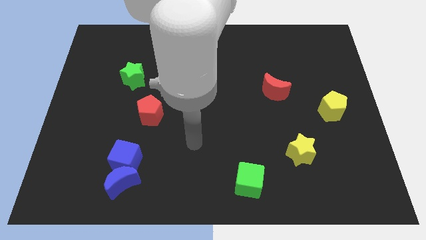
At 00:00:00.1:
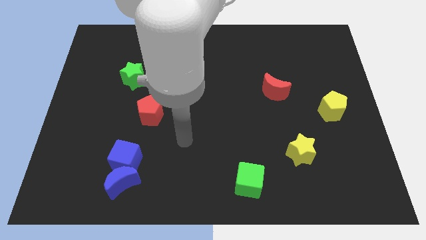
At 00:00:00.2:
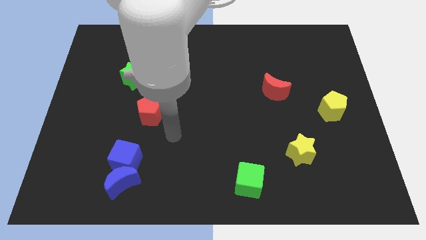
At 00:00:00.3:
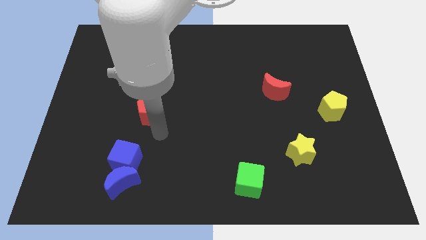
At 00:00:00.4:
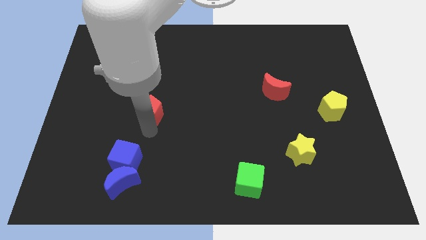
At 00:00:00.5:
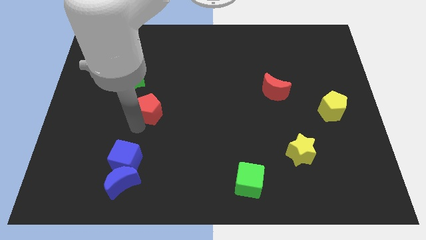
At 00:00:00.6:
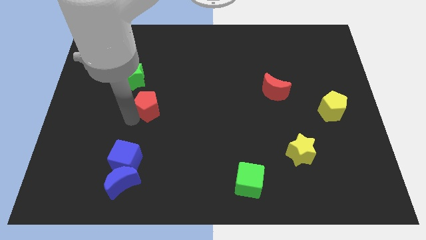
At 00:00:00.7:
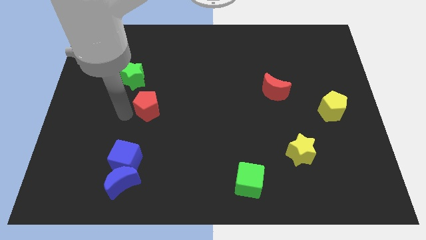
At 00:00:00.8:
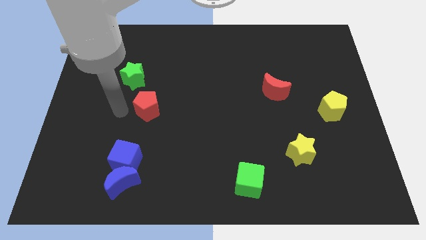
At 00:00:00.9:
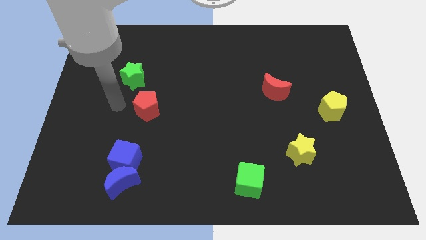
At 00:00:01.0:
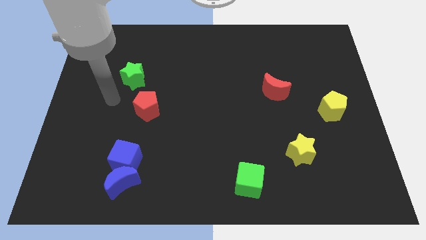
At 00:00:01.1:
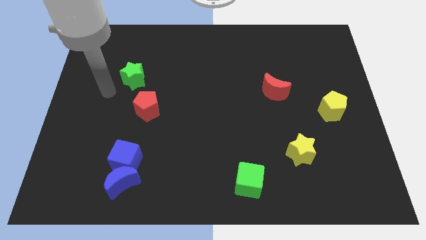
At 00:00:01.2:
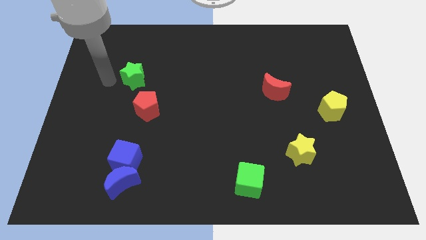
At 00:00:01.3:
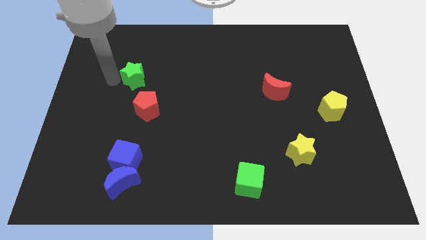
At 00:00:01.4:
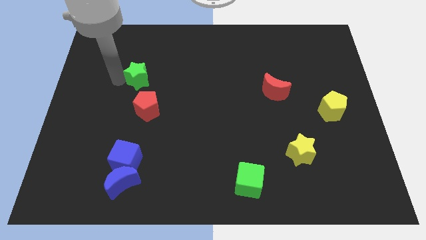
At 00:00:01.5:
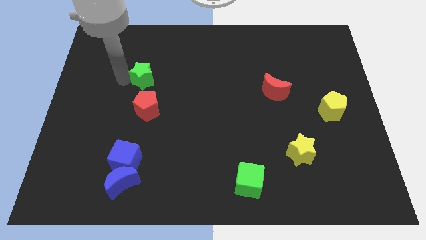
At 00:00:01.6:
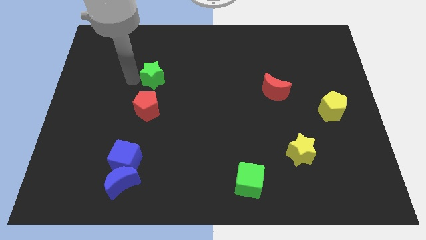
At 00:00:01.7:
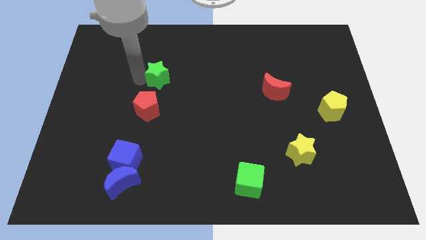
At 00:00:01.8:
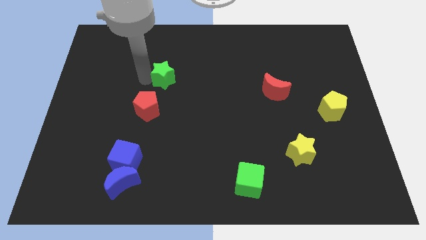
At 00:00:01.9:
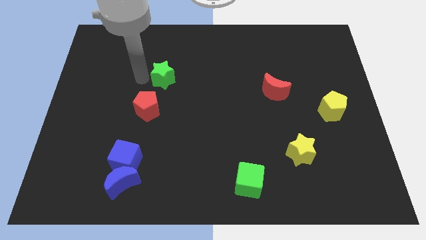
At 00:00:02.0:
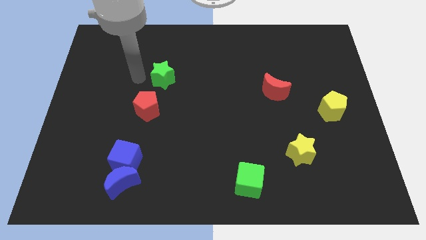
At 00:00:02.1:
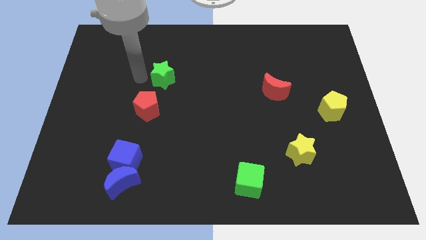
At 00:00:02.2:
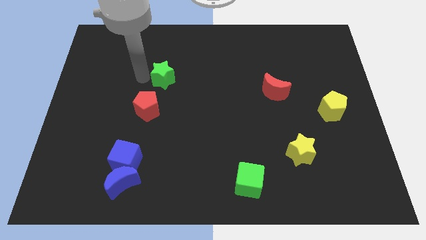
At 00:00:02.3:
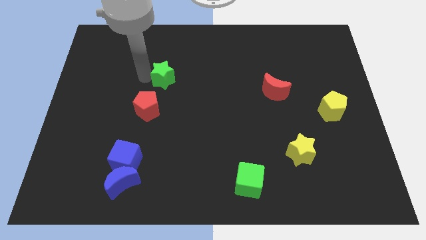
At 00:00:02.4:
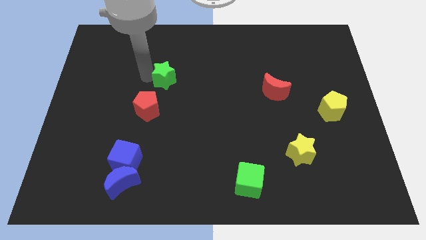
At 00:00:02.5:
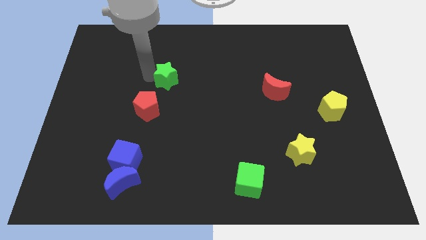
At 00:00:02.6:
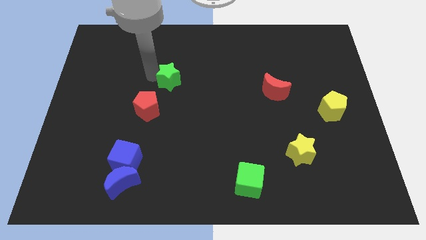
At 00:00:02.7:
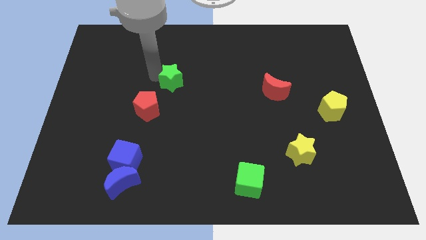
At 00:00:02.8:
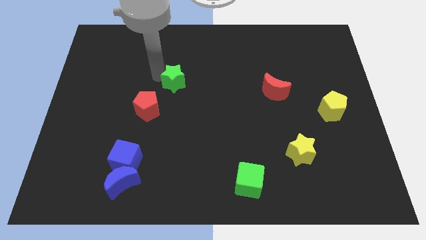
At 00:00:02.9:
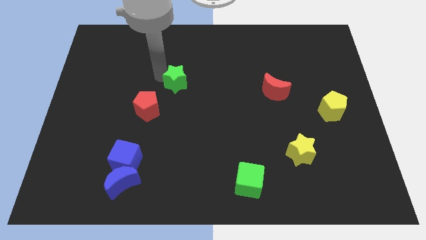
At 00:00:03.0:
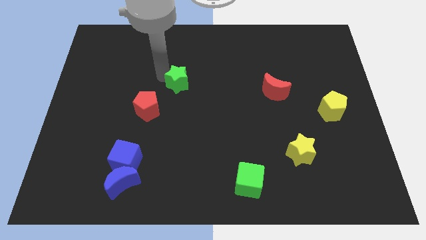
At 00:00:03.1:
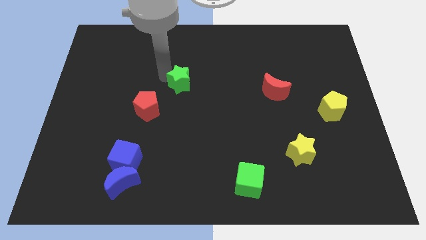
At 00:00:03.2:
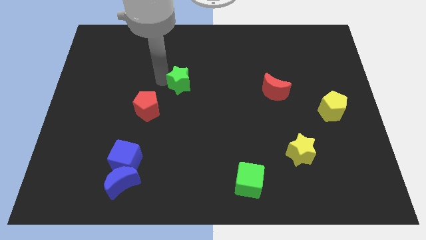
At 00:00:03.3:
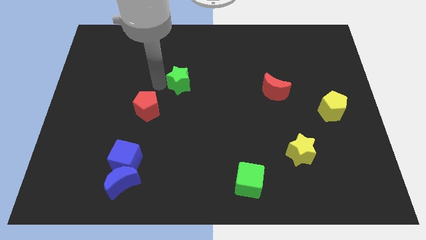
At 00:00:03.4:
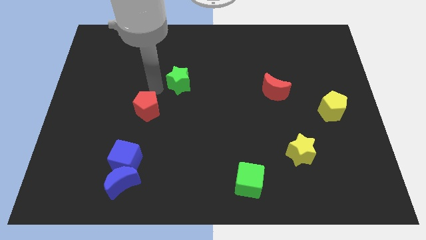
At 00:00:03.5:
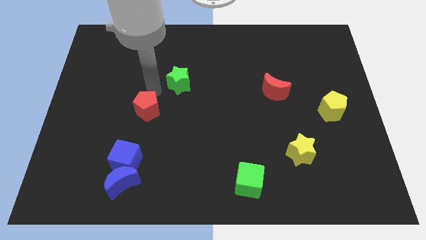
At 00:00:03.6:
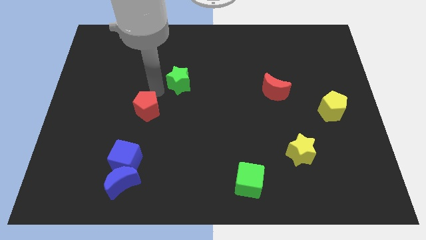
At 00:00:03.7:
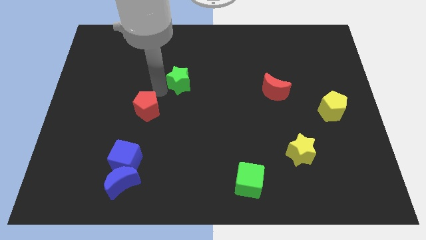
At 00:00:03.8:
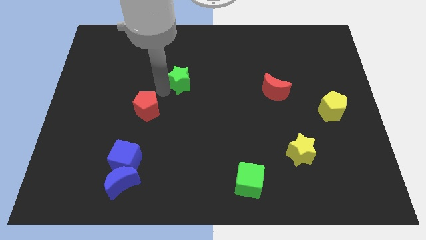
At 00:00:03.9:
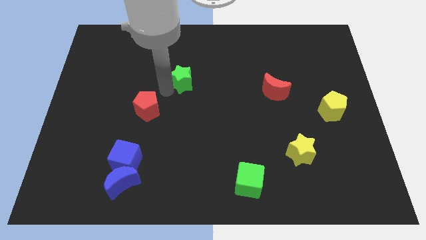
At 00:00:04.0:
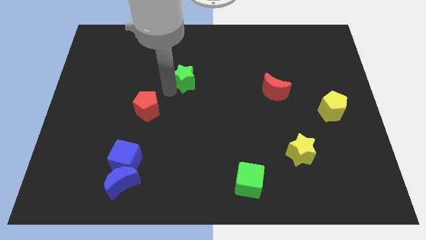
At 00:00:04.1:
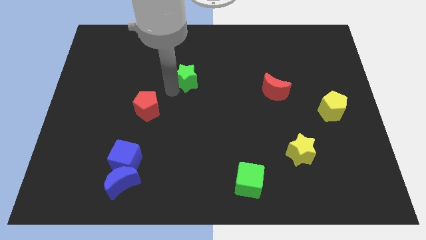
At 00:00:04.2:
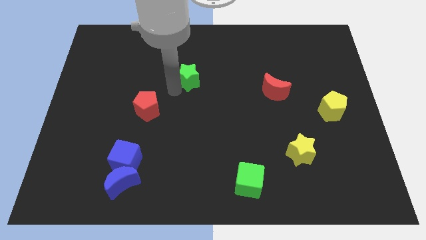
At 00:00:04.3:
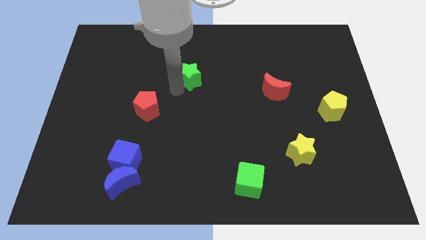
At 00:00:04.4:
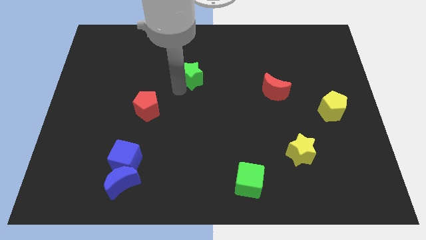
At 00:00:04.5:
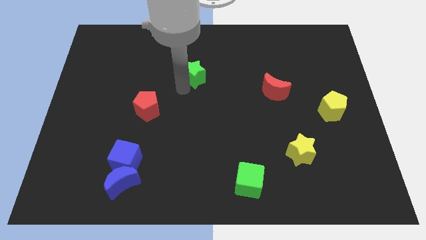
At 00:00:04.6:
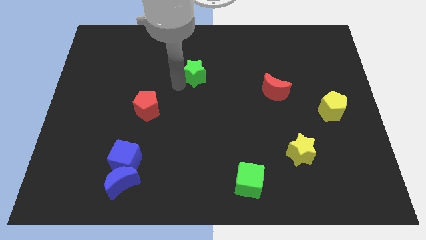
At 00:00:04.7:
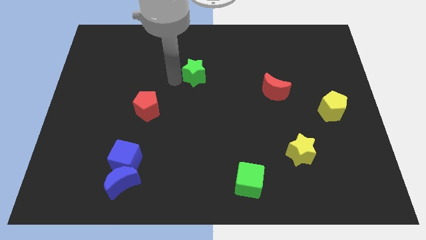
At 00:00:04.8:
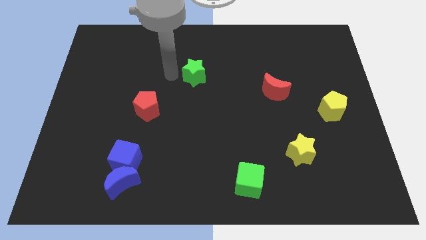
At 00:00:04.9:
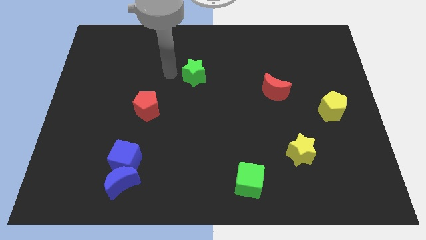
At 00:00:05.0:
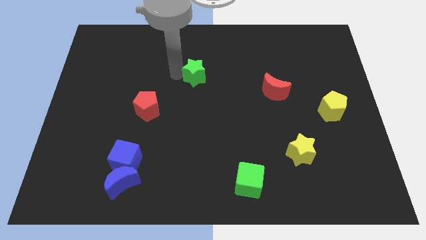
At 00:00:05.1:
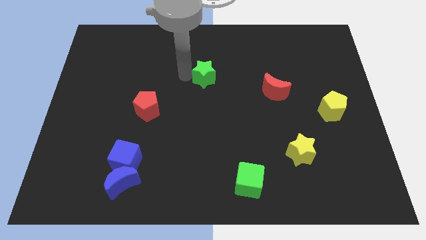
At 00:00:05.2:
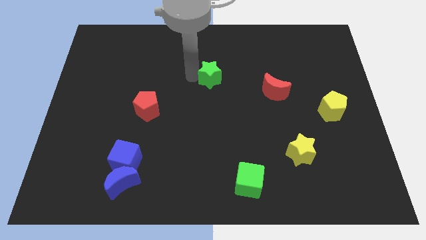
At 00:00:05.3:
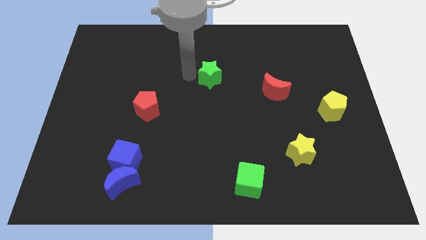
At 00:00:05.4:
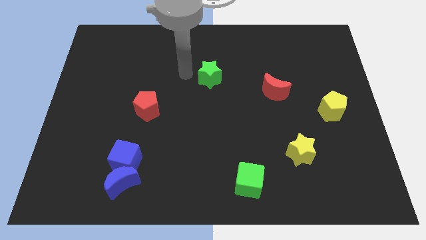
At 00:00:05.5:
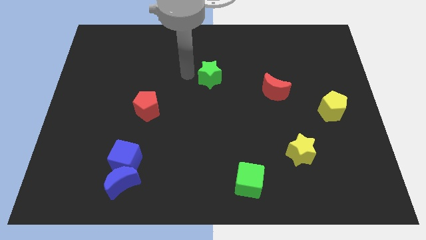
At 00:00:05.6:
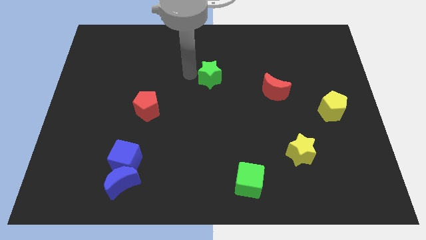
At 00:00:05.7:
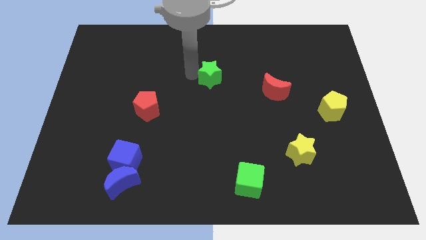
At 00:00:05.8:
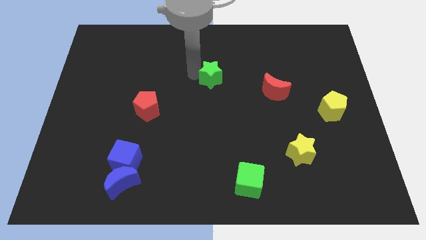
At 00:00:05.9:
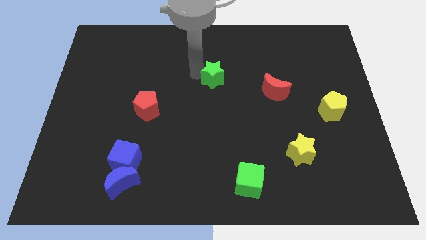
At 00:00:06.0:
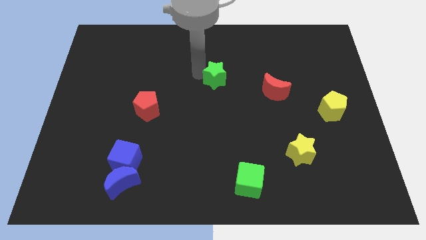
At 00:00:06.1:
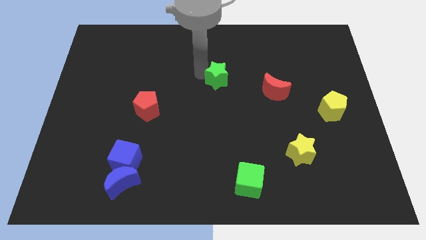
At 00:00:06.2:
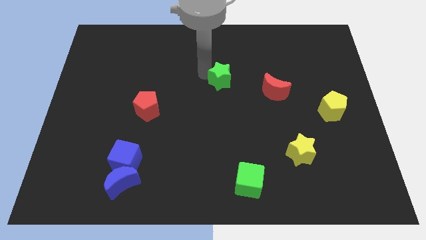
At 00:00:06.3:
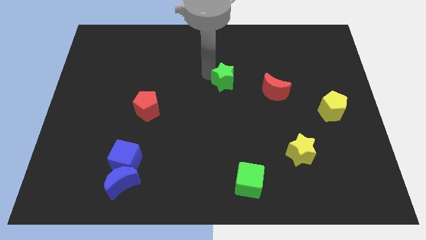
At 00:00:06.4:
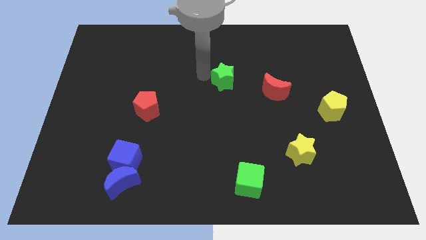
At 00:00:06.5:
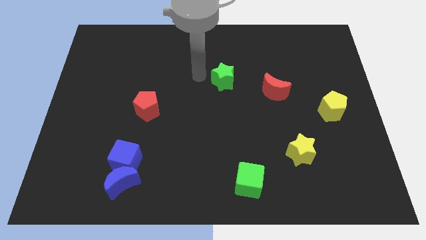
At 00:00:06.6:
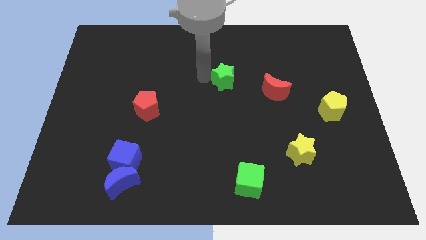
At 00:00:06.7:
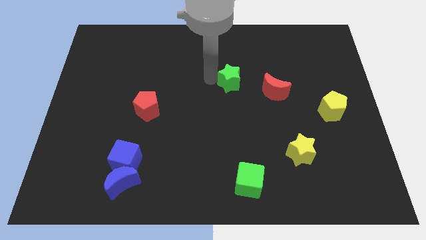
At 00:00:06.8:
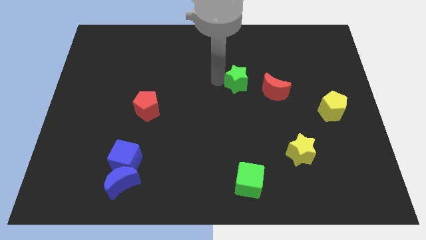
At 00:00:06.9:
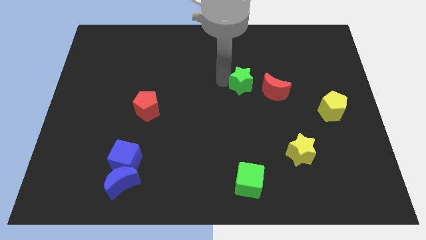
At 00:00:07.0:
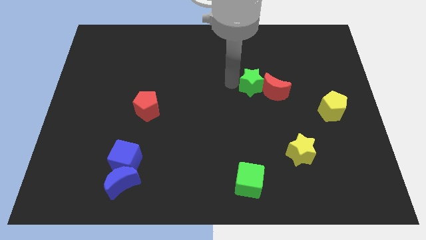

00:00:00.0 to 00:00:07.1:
put the green star next to the red moon

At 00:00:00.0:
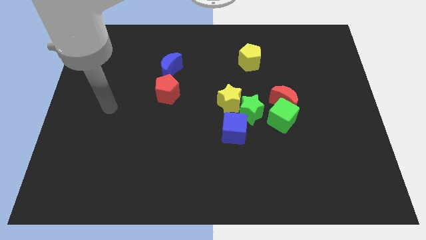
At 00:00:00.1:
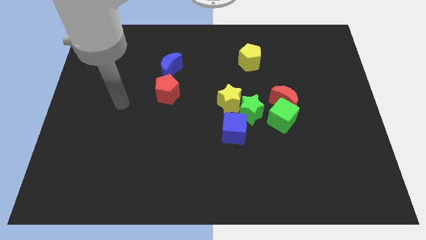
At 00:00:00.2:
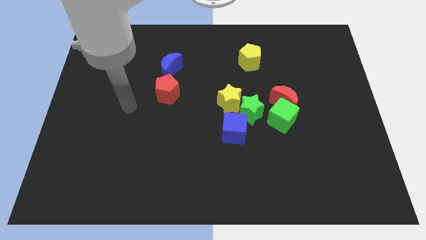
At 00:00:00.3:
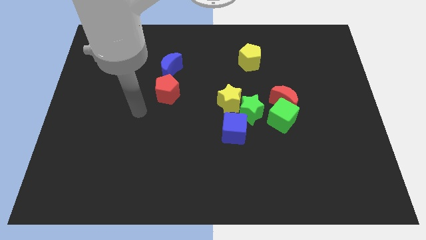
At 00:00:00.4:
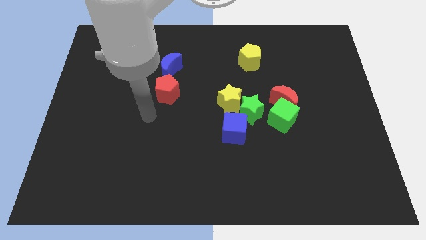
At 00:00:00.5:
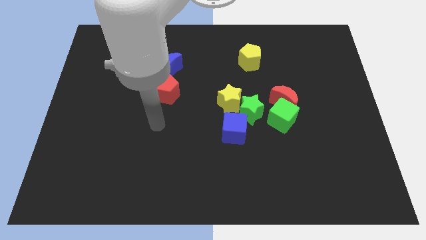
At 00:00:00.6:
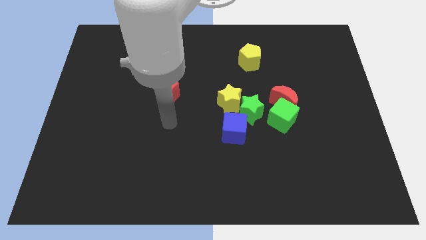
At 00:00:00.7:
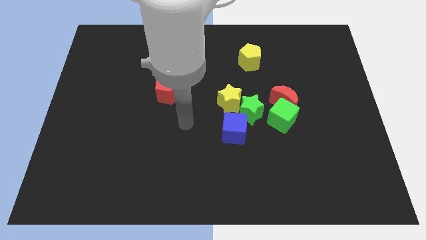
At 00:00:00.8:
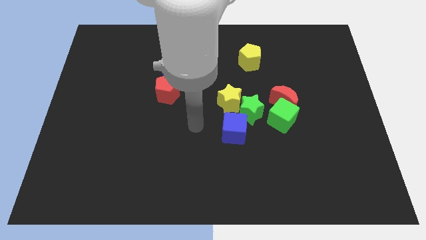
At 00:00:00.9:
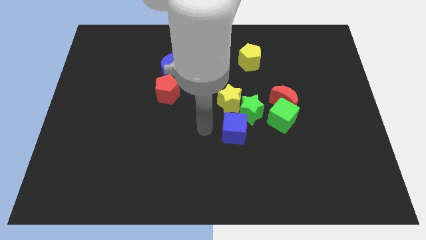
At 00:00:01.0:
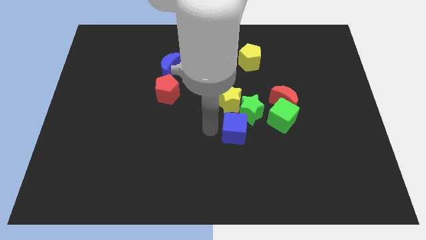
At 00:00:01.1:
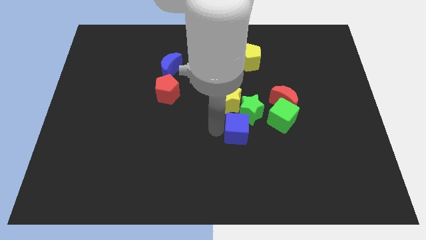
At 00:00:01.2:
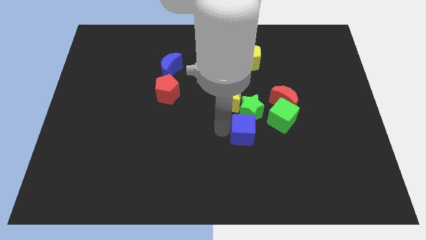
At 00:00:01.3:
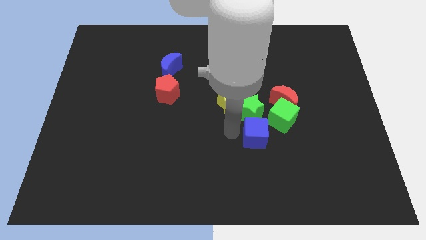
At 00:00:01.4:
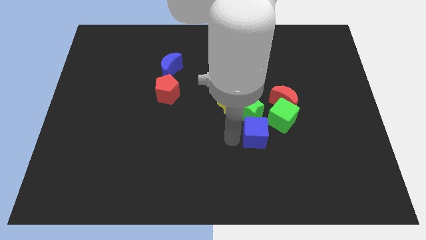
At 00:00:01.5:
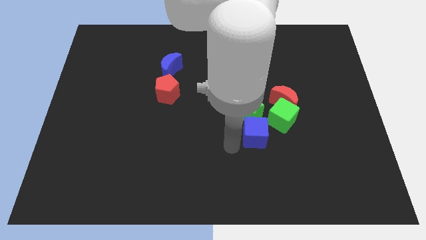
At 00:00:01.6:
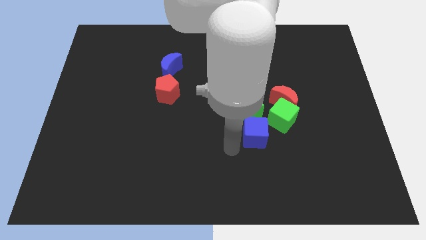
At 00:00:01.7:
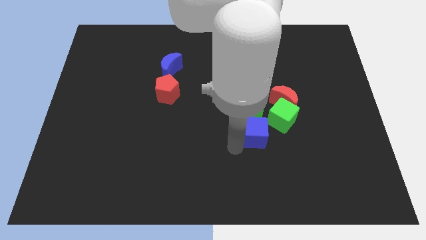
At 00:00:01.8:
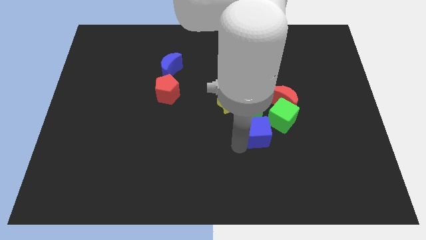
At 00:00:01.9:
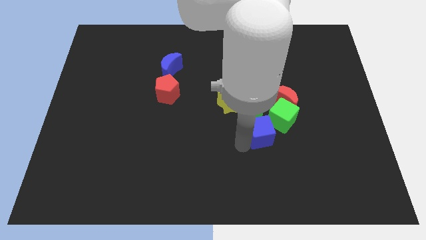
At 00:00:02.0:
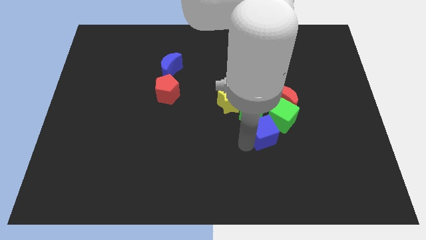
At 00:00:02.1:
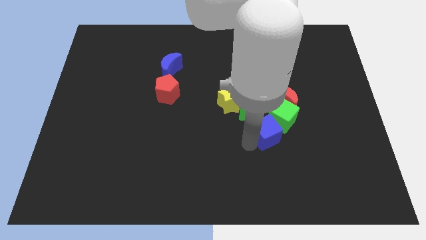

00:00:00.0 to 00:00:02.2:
slide the blue cube close to the green cube
